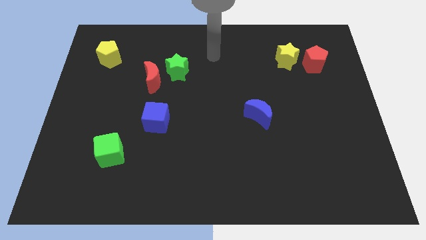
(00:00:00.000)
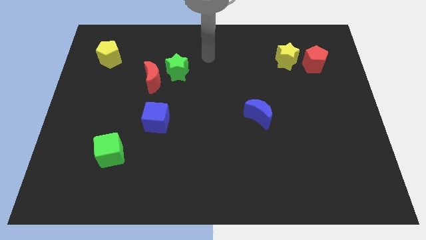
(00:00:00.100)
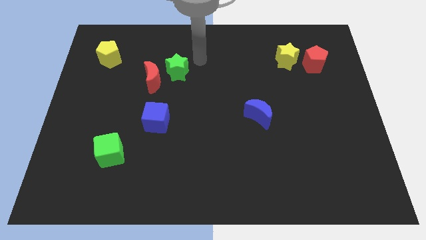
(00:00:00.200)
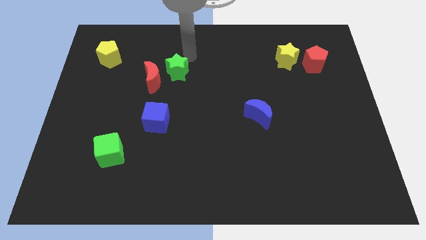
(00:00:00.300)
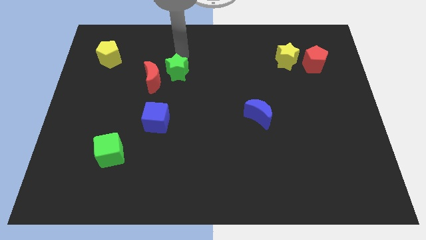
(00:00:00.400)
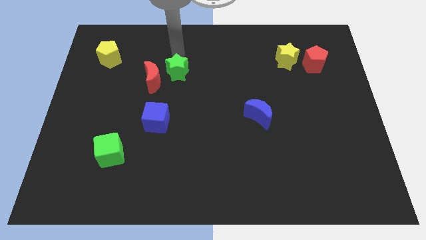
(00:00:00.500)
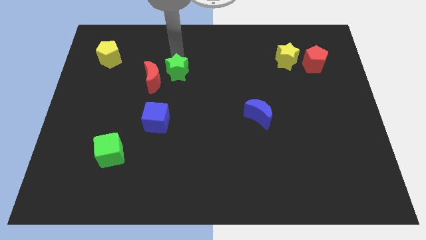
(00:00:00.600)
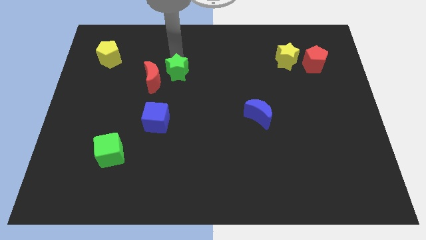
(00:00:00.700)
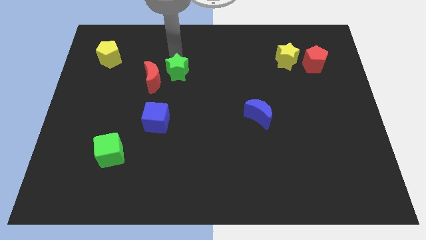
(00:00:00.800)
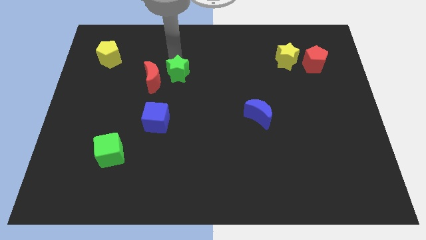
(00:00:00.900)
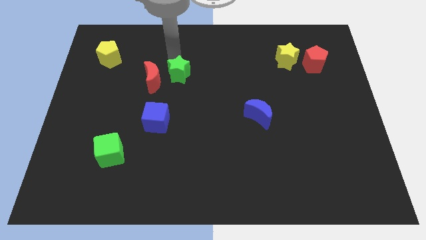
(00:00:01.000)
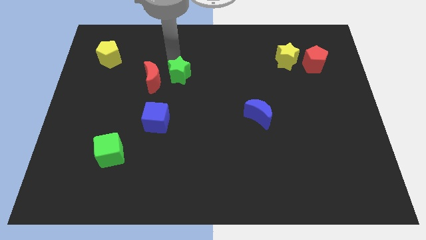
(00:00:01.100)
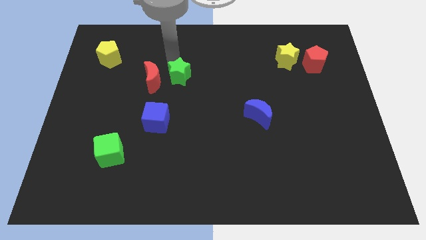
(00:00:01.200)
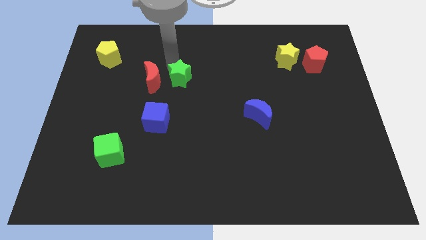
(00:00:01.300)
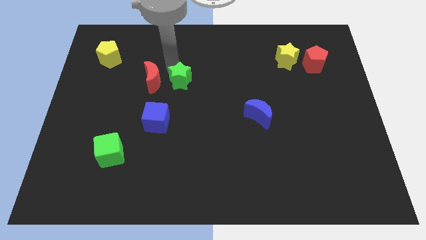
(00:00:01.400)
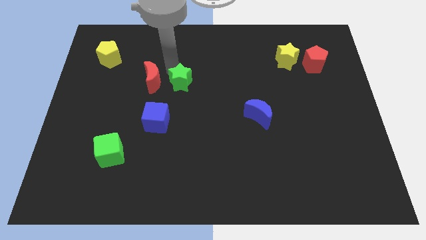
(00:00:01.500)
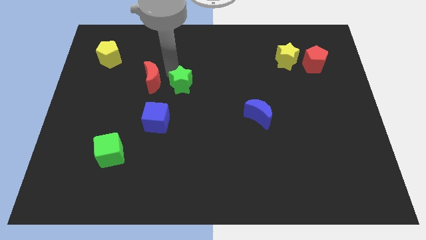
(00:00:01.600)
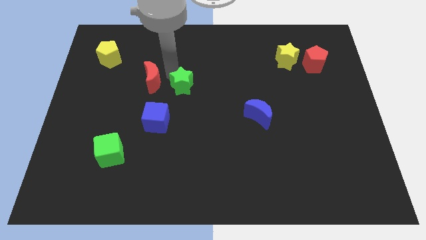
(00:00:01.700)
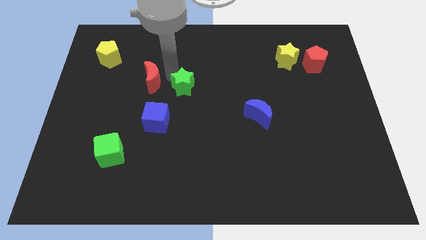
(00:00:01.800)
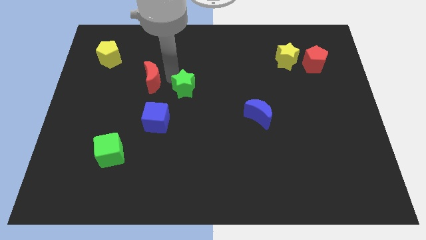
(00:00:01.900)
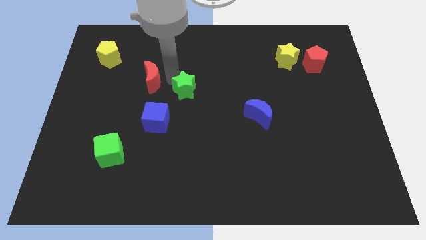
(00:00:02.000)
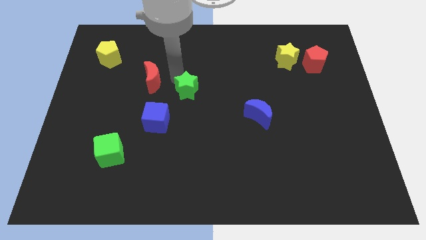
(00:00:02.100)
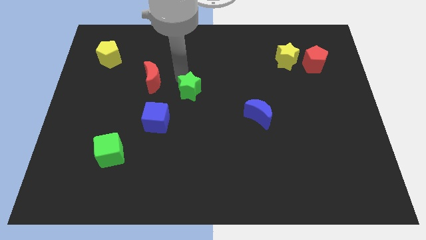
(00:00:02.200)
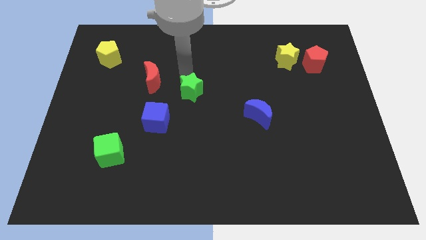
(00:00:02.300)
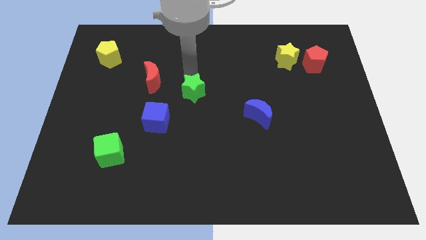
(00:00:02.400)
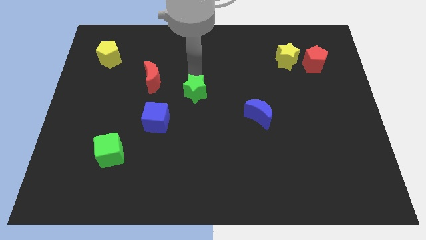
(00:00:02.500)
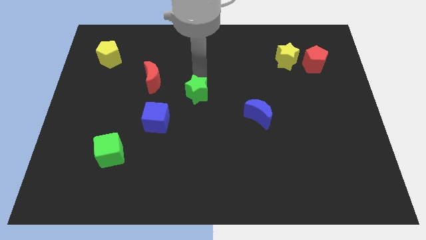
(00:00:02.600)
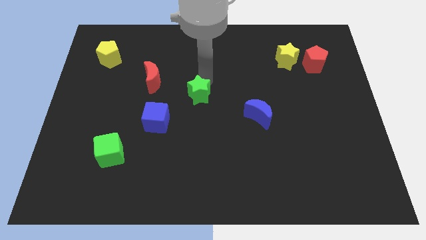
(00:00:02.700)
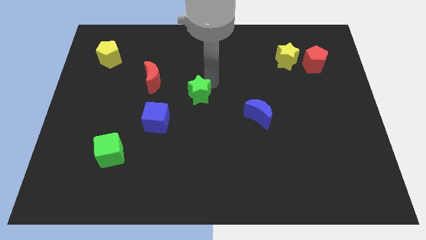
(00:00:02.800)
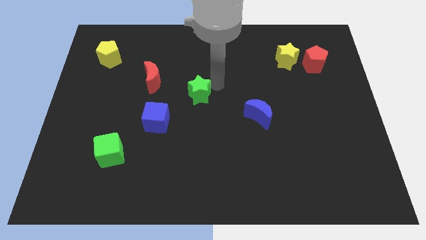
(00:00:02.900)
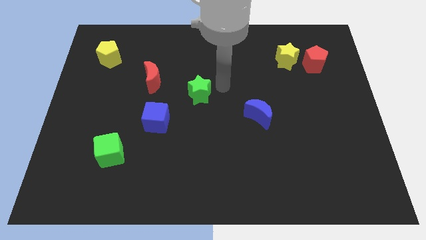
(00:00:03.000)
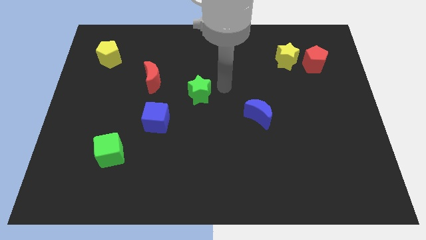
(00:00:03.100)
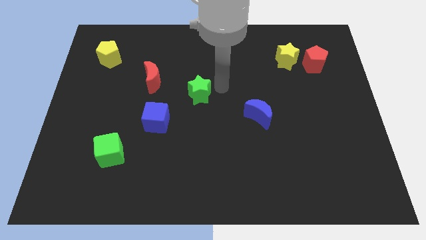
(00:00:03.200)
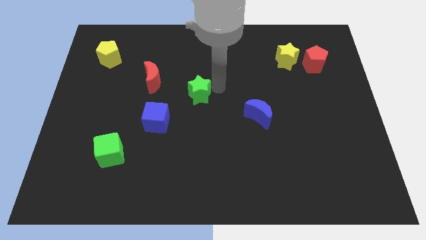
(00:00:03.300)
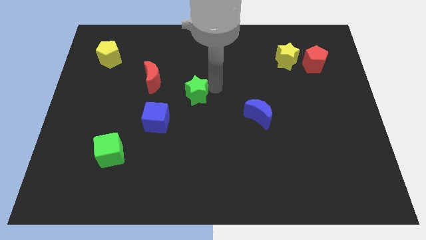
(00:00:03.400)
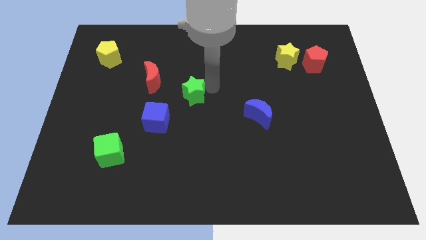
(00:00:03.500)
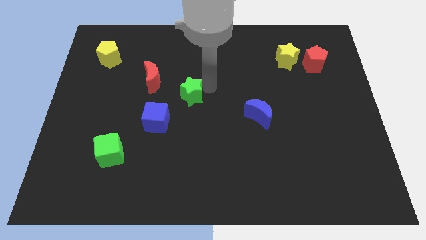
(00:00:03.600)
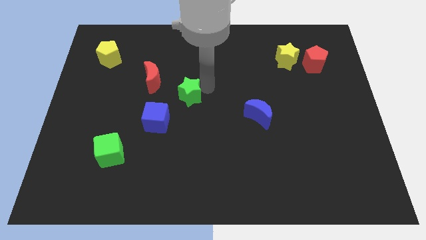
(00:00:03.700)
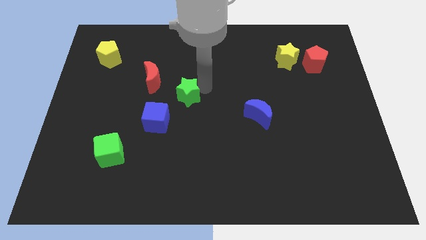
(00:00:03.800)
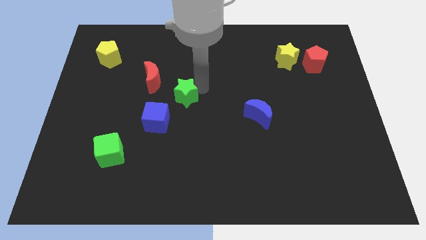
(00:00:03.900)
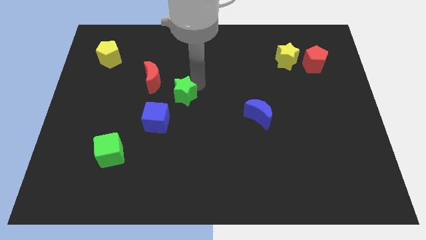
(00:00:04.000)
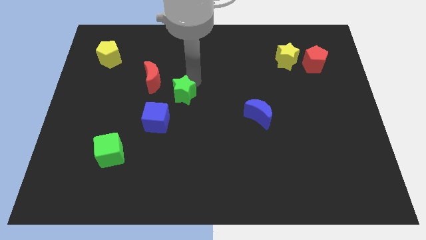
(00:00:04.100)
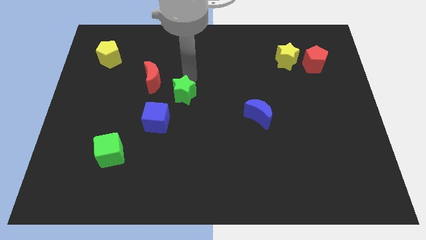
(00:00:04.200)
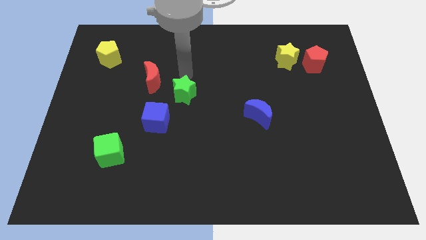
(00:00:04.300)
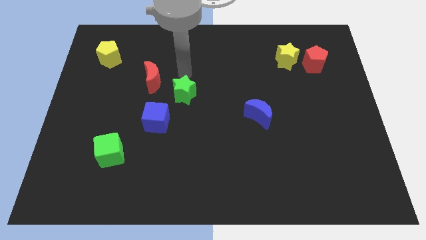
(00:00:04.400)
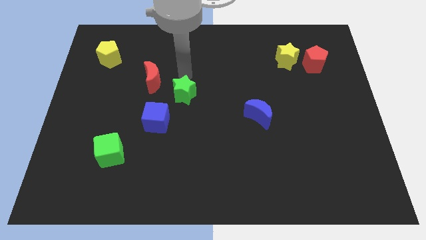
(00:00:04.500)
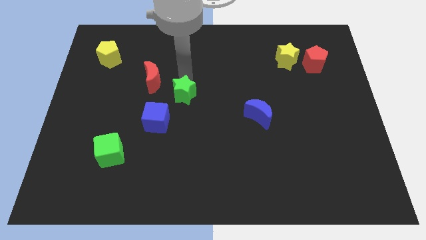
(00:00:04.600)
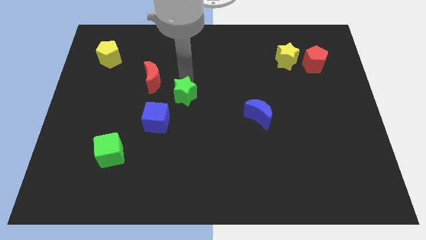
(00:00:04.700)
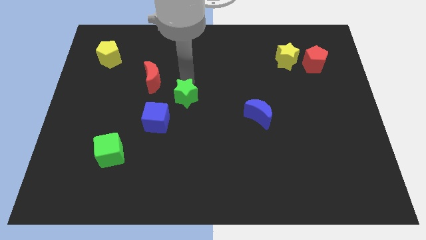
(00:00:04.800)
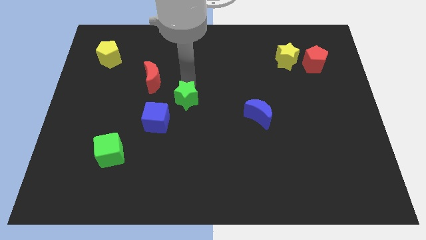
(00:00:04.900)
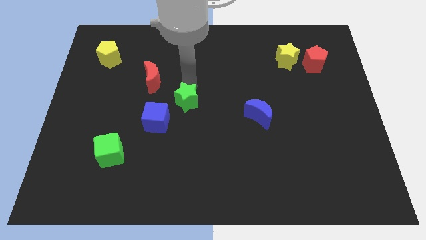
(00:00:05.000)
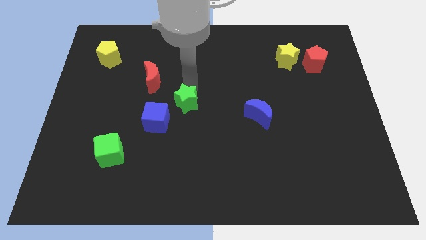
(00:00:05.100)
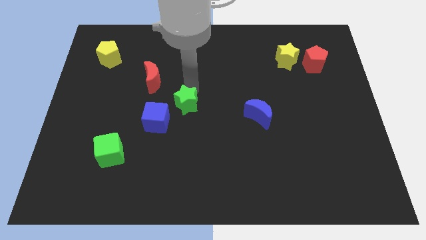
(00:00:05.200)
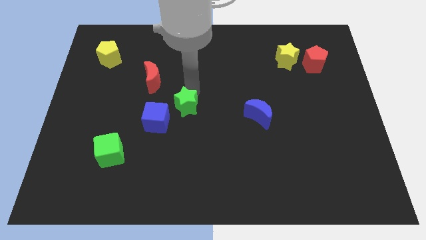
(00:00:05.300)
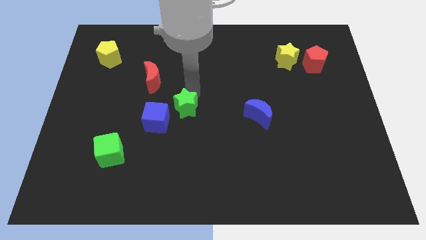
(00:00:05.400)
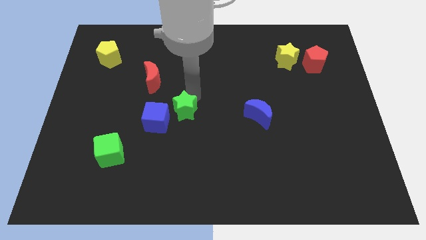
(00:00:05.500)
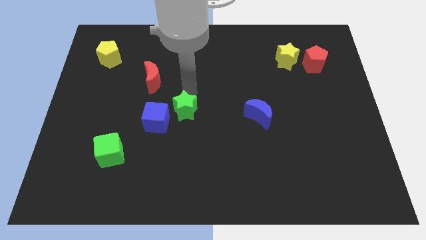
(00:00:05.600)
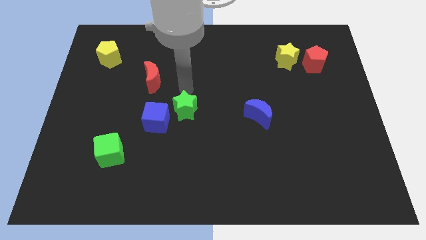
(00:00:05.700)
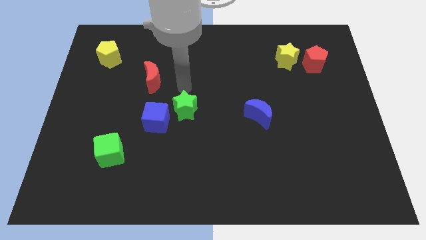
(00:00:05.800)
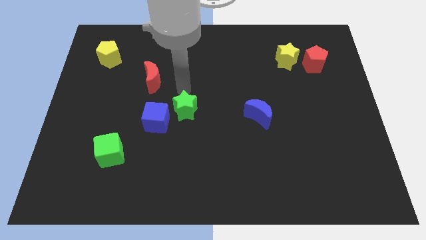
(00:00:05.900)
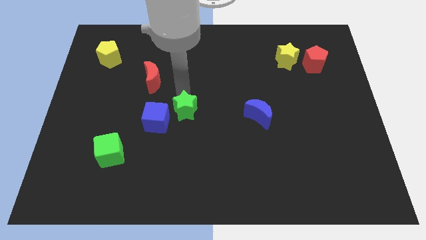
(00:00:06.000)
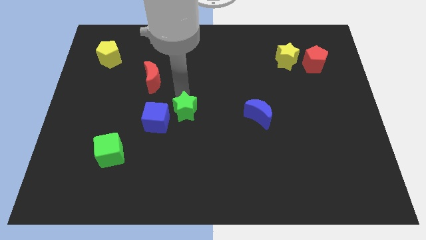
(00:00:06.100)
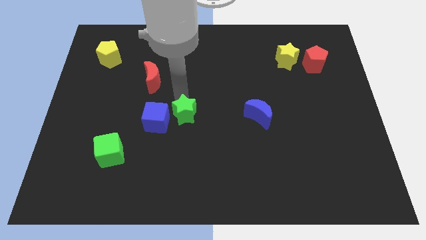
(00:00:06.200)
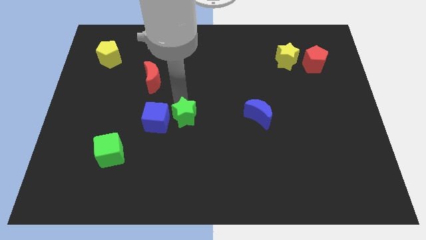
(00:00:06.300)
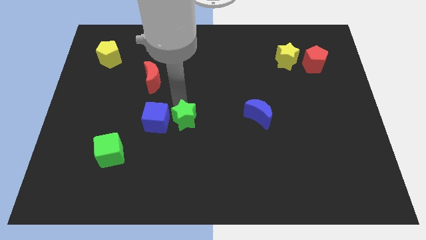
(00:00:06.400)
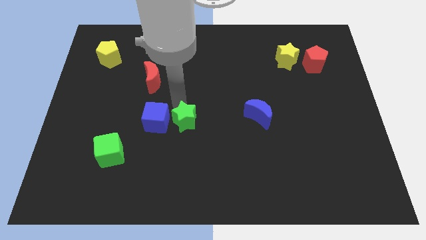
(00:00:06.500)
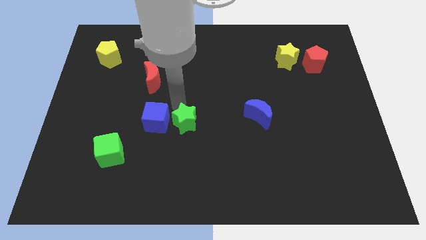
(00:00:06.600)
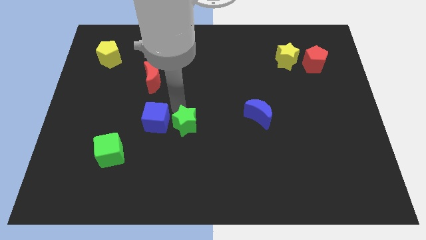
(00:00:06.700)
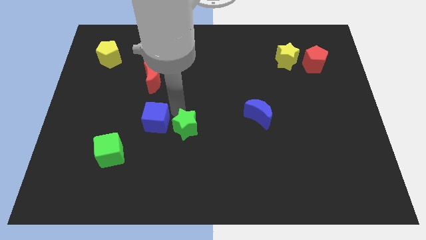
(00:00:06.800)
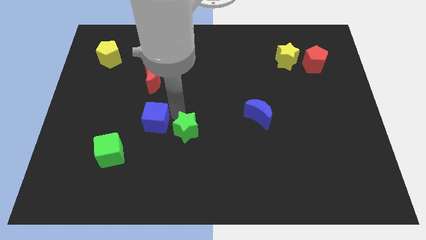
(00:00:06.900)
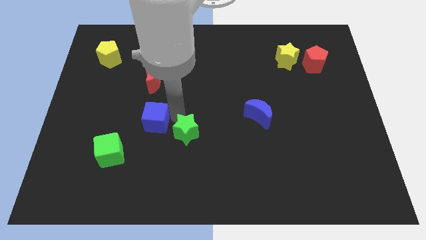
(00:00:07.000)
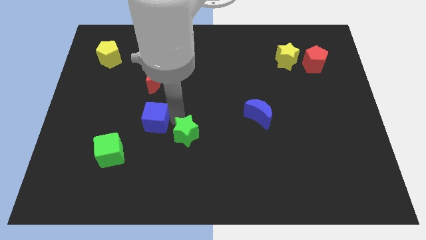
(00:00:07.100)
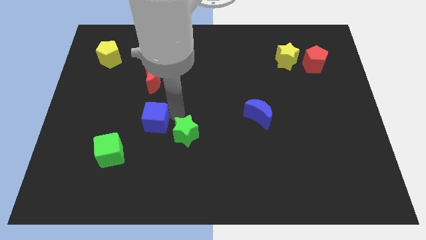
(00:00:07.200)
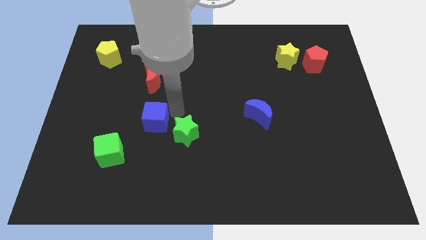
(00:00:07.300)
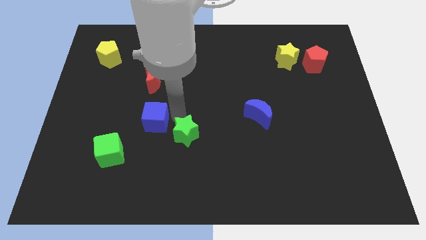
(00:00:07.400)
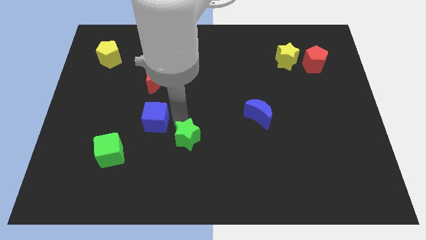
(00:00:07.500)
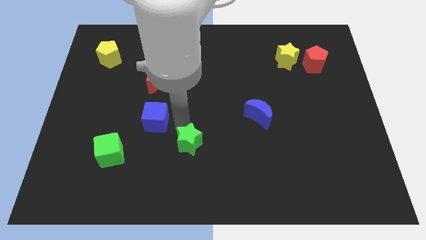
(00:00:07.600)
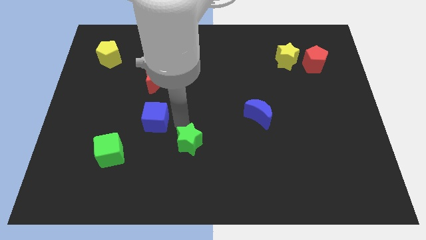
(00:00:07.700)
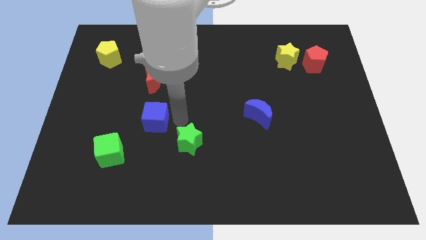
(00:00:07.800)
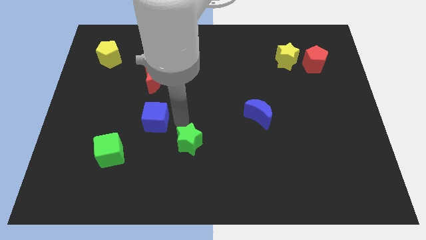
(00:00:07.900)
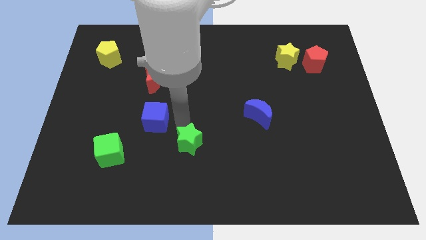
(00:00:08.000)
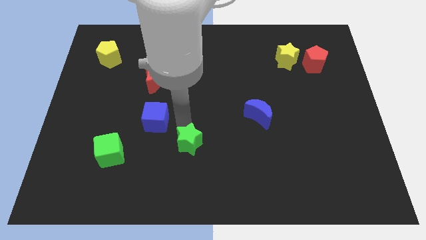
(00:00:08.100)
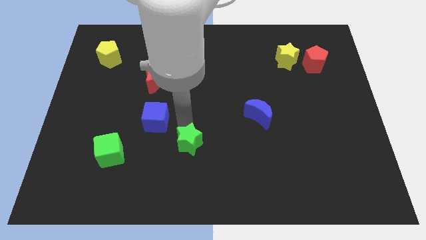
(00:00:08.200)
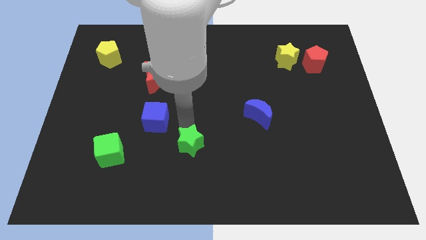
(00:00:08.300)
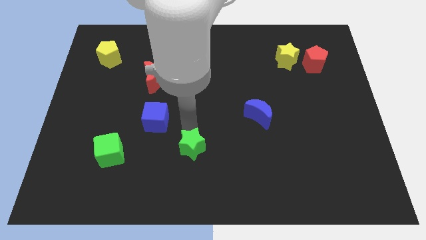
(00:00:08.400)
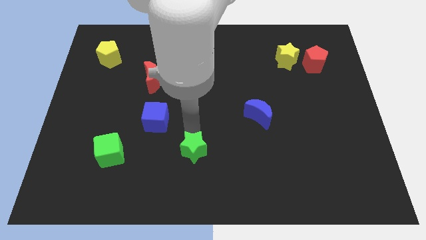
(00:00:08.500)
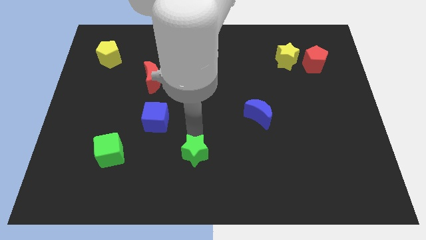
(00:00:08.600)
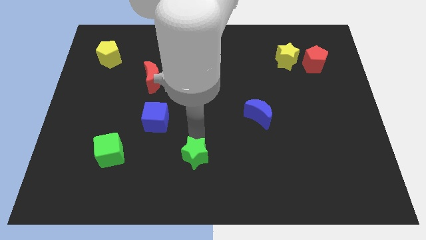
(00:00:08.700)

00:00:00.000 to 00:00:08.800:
slide the green star to the bottom
